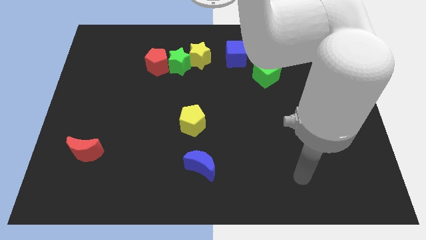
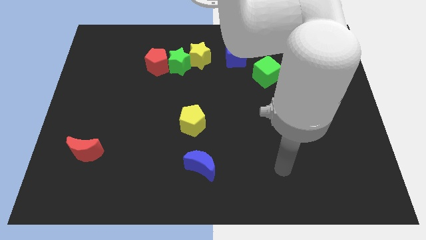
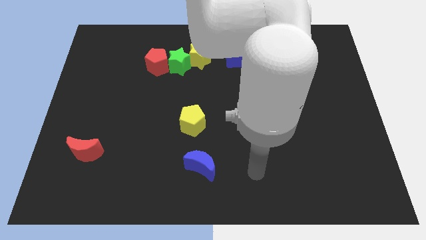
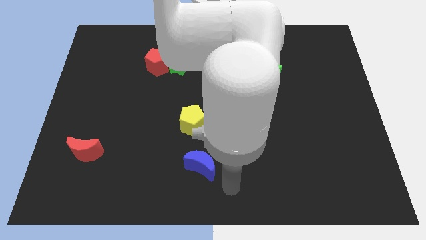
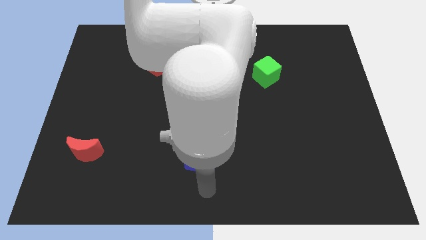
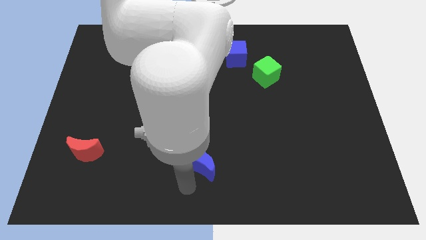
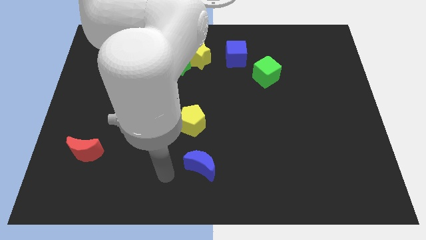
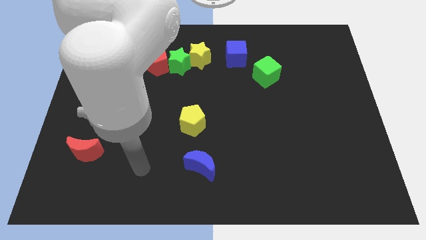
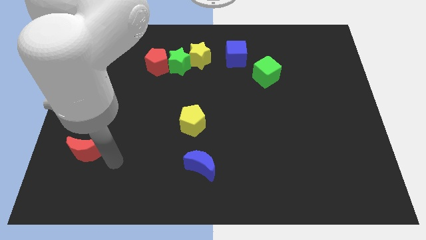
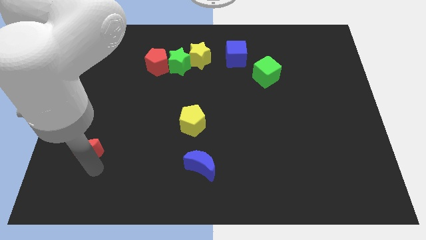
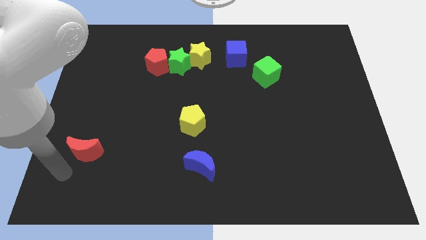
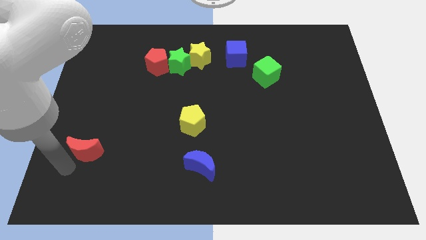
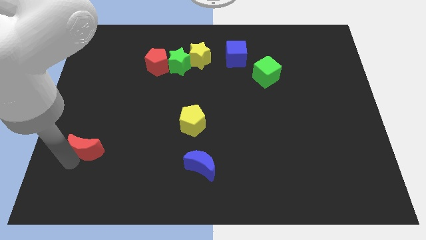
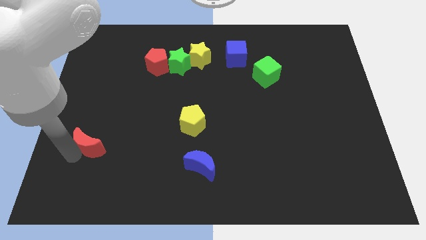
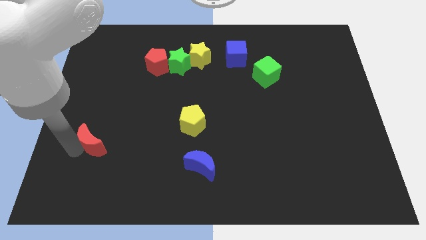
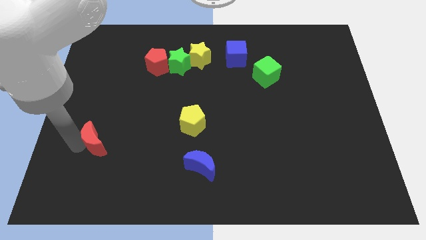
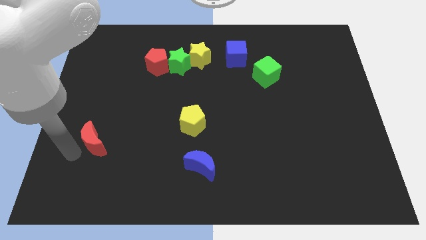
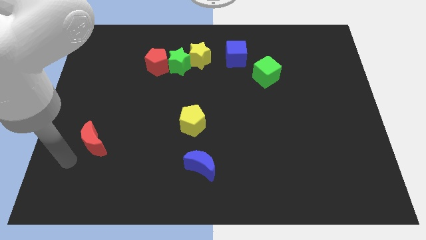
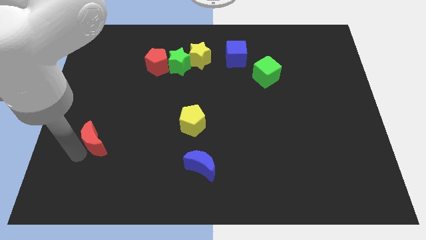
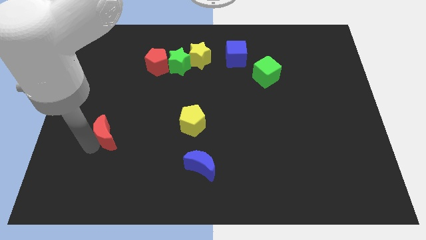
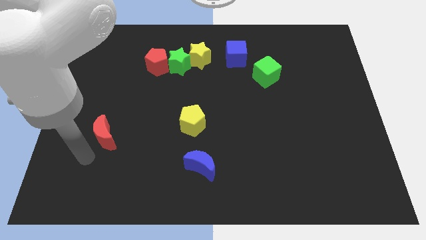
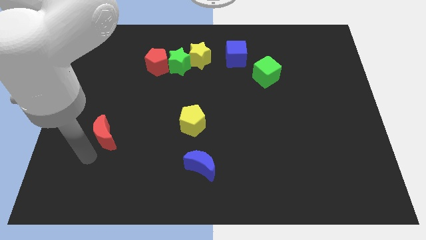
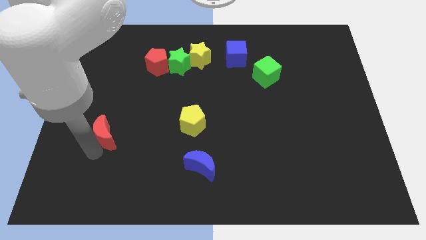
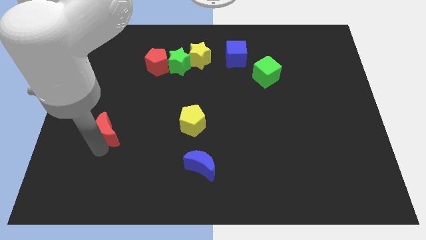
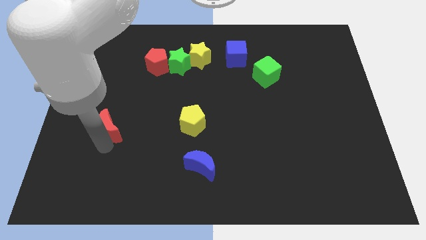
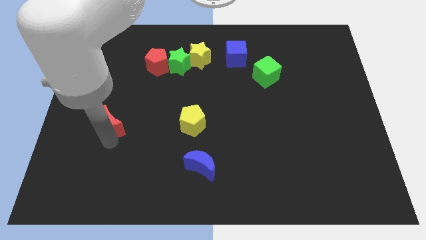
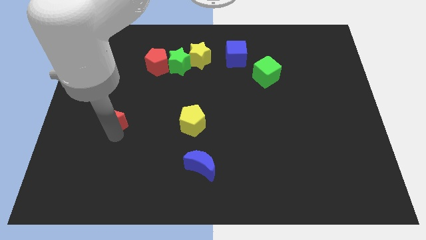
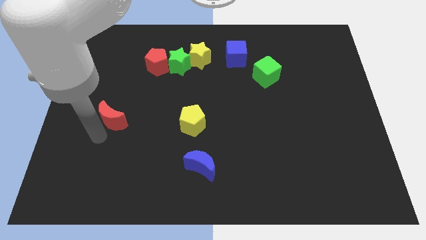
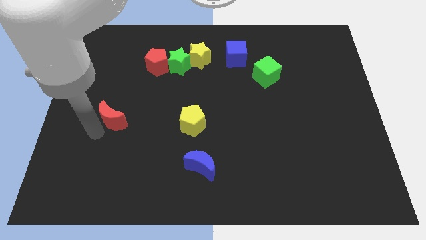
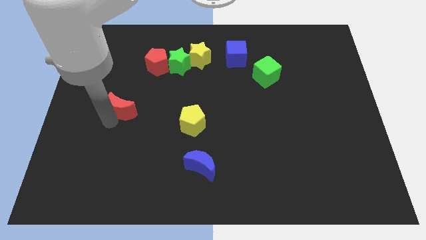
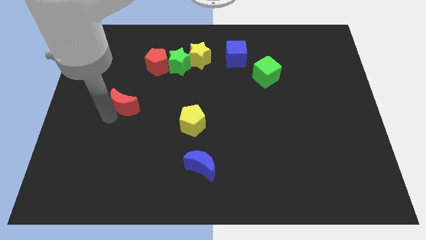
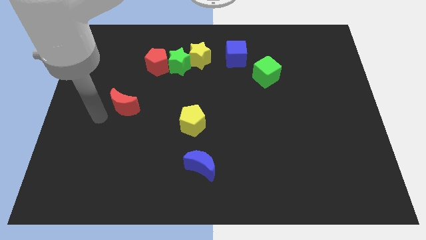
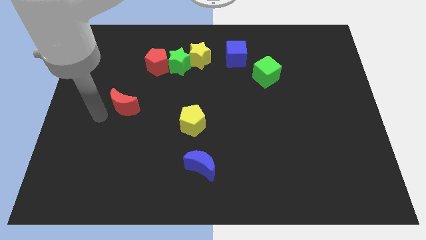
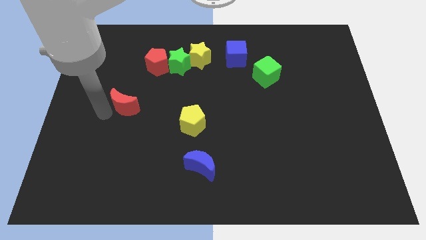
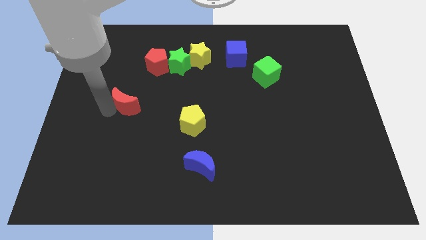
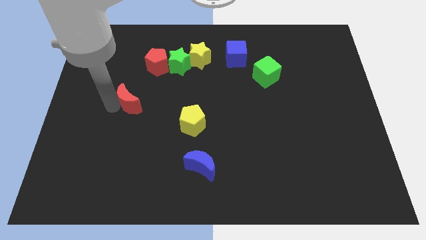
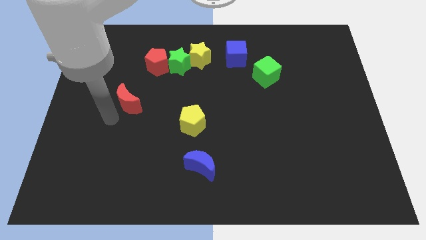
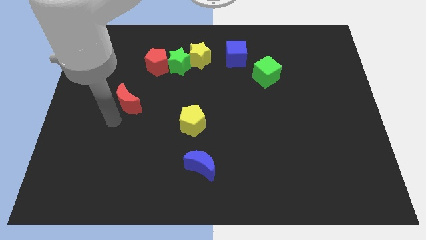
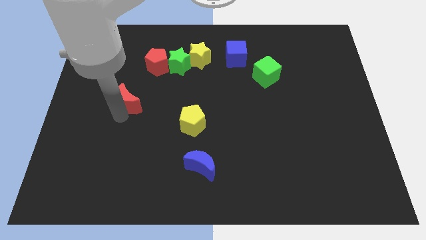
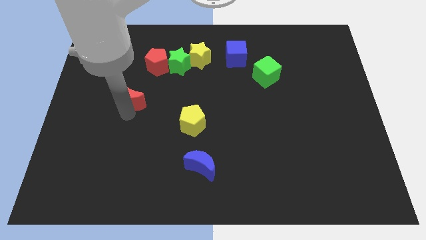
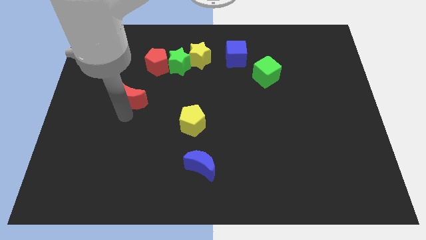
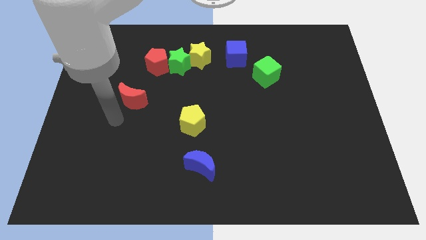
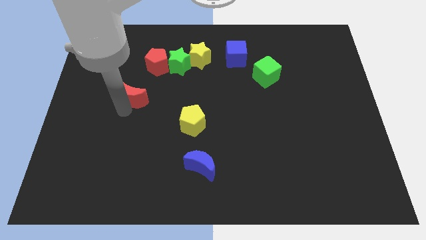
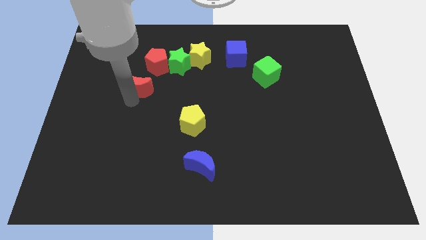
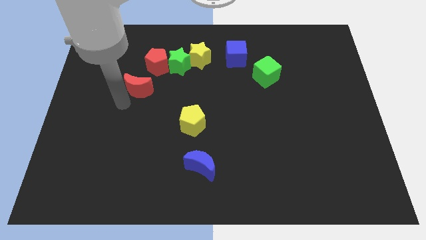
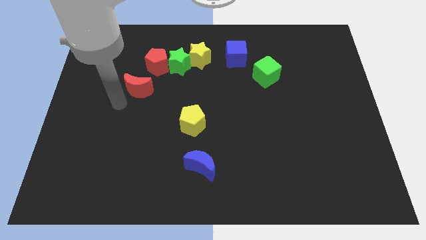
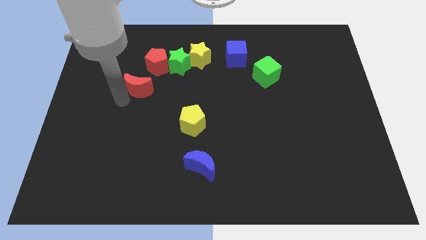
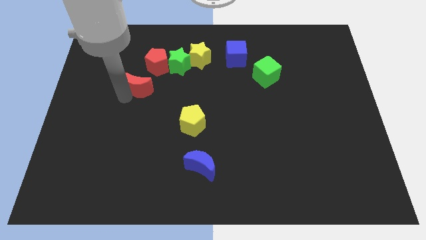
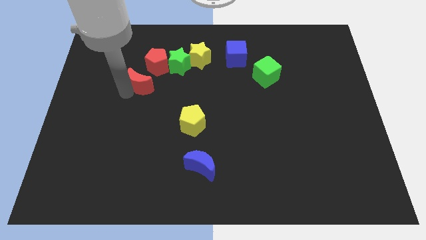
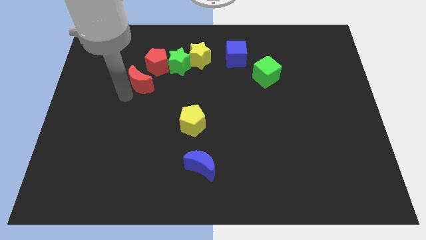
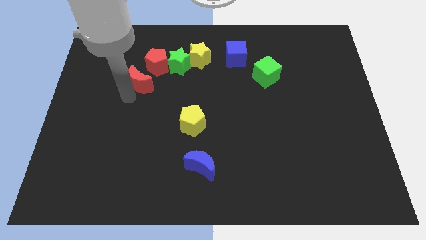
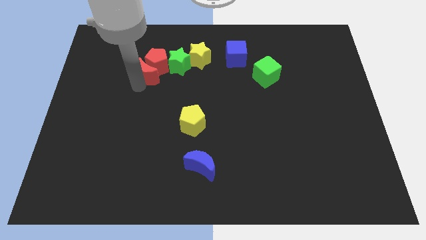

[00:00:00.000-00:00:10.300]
move the red moon next to the red pentagon

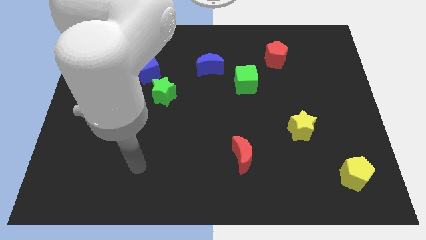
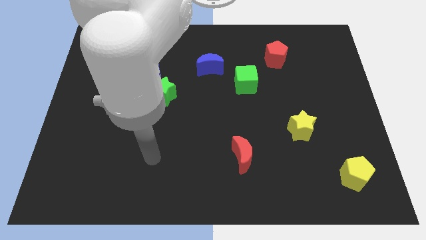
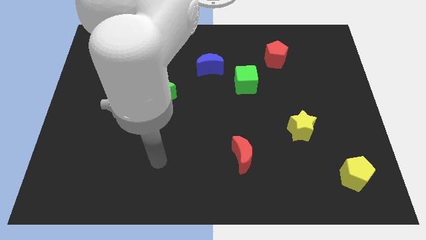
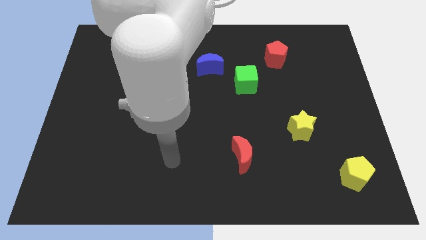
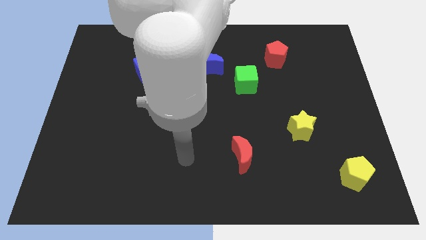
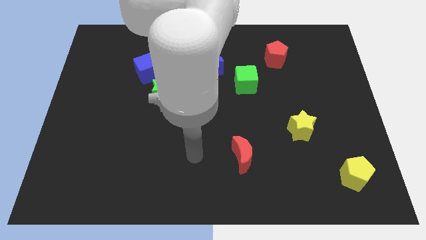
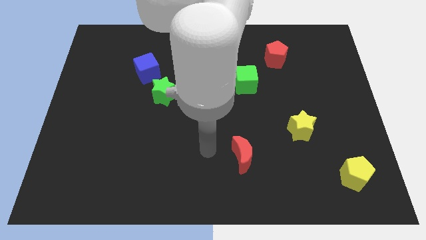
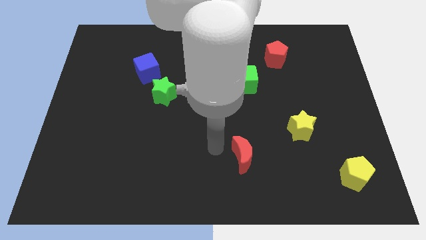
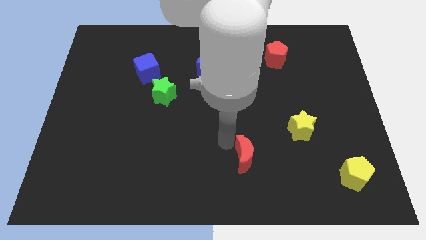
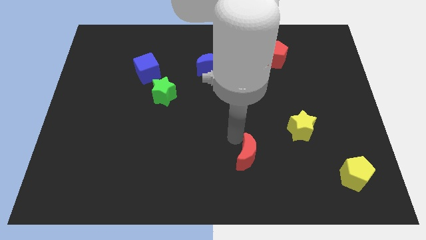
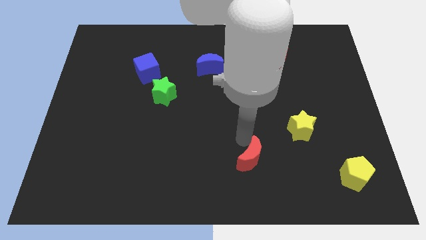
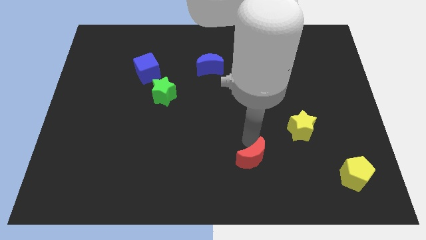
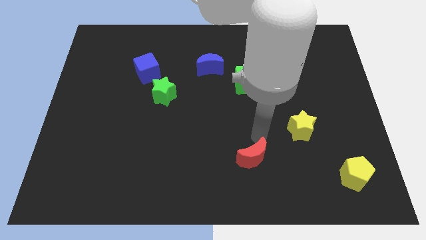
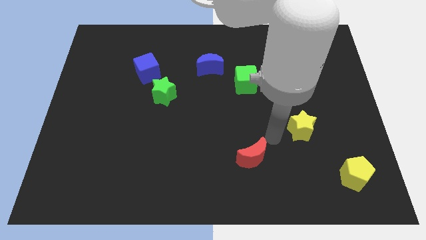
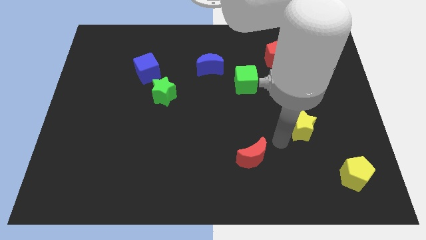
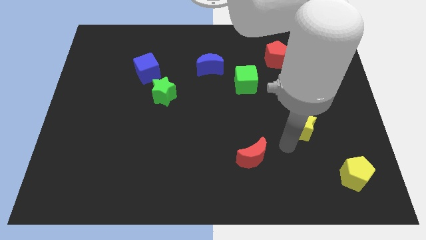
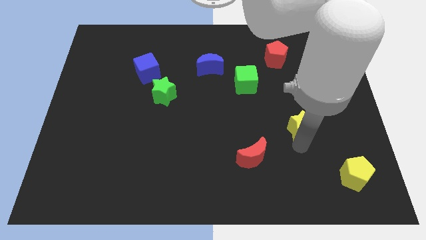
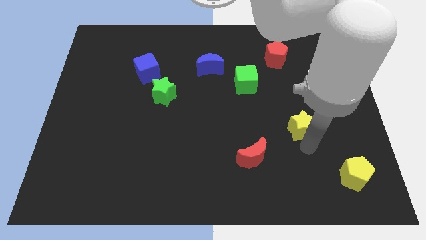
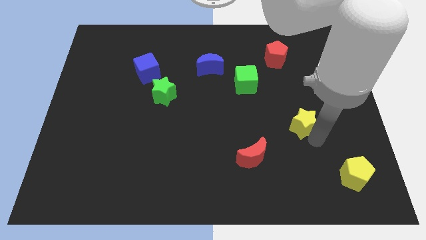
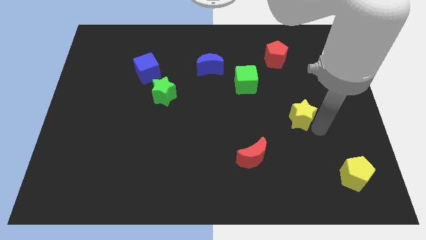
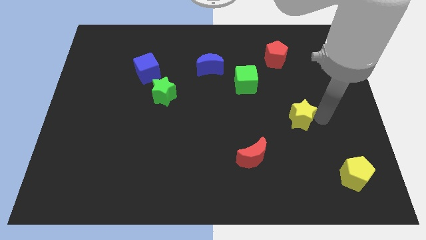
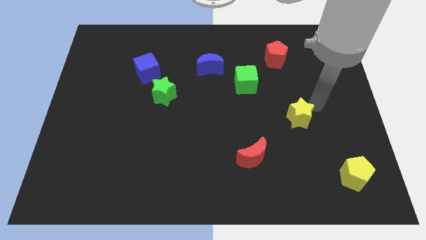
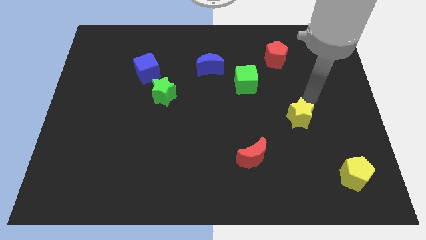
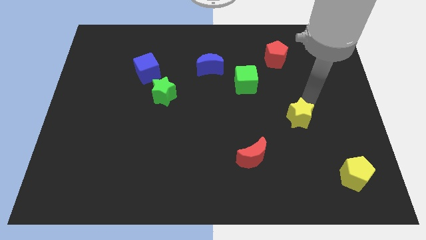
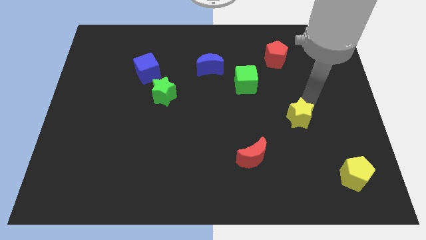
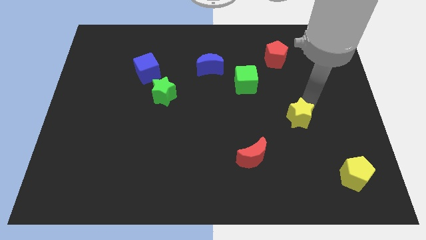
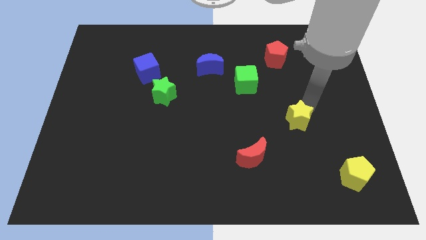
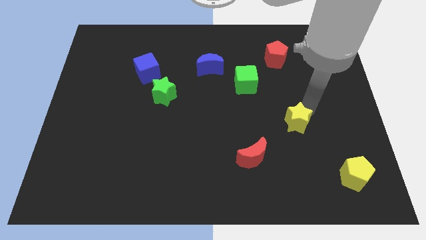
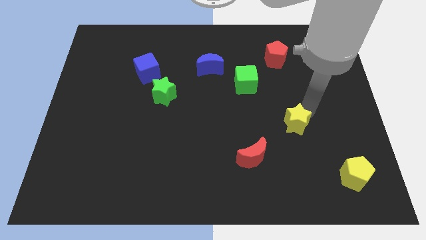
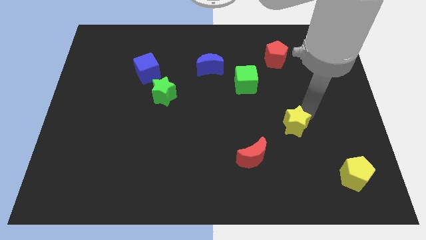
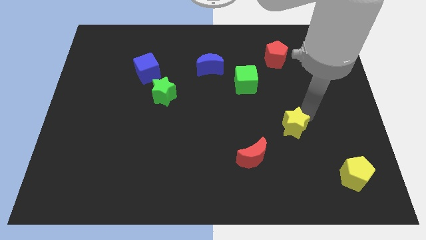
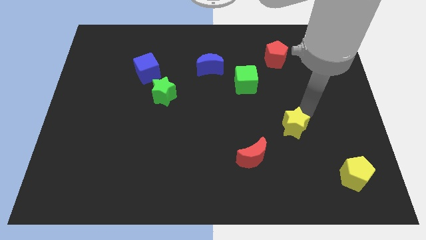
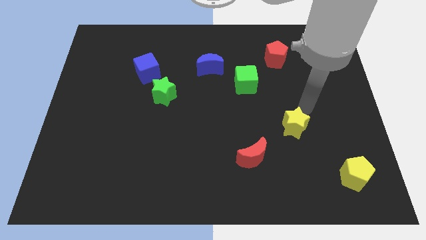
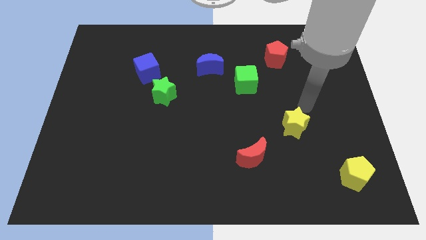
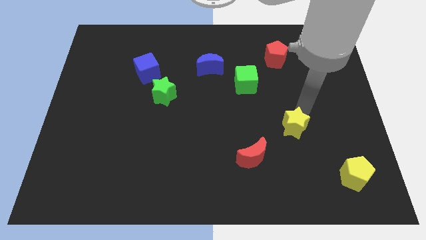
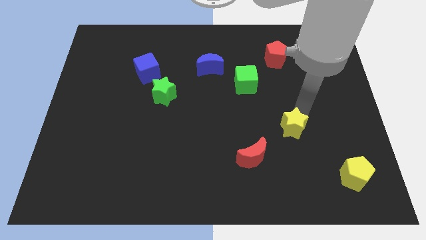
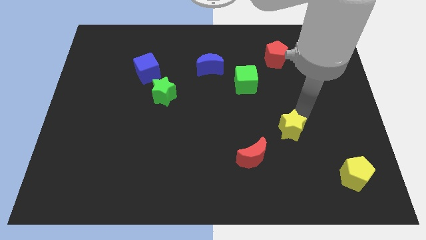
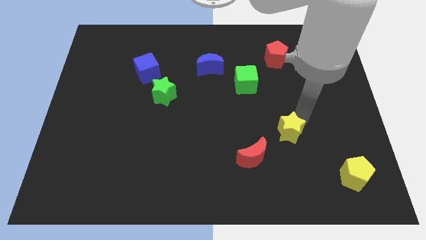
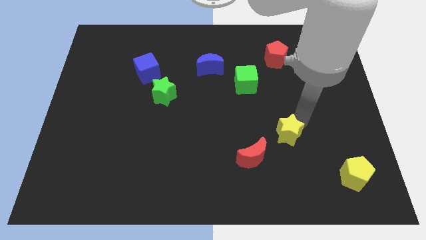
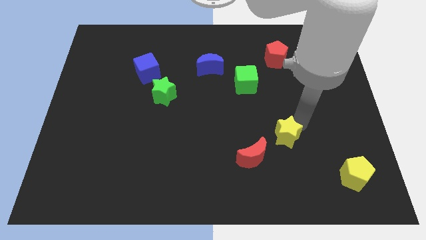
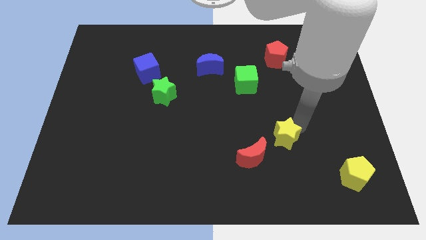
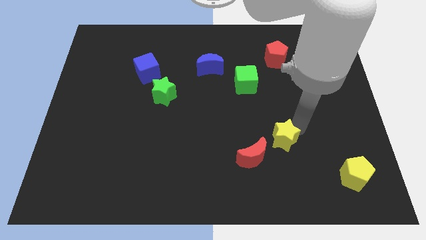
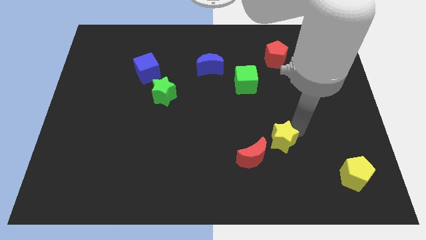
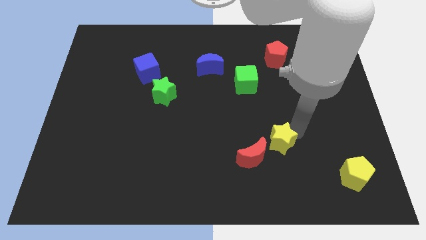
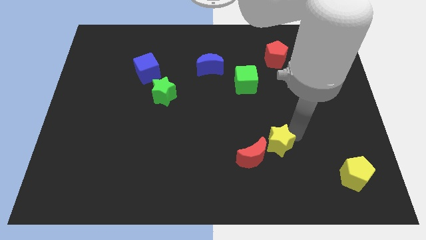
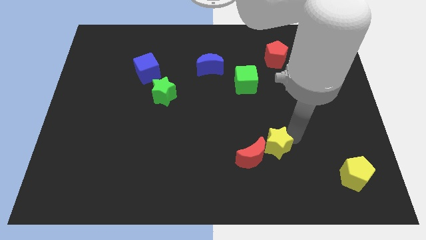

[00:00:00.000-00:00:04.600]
push the yellow star to the red moon
